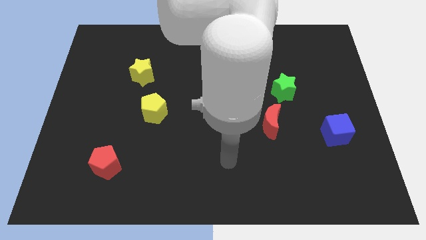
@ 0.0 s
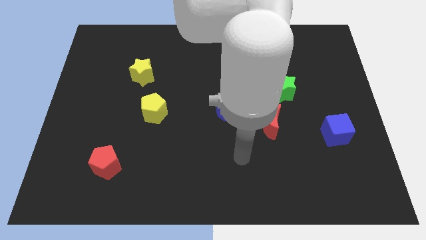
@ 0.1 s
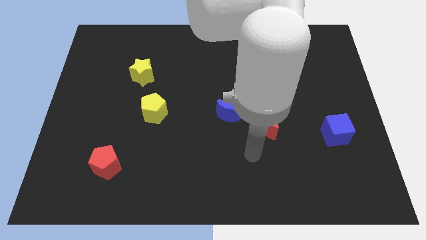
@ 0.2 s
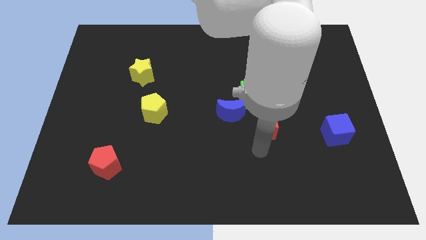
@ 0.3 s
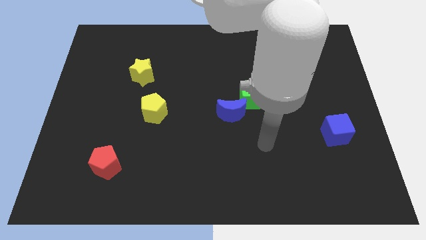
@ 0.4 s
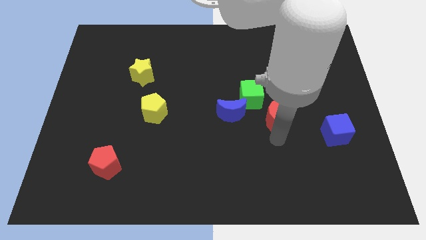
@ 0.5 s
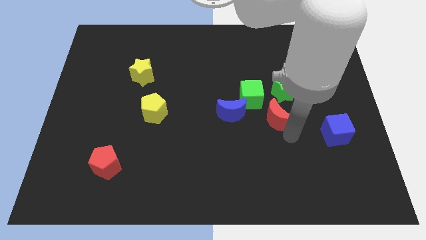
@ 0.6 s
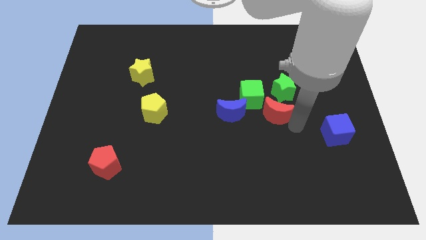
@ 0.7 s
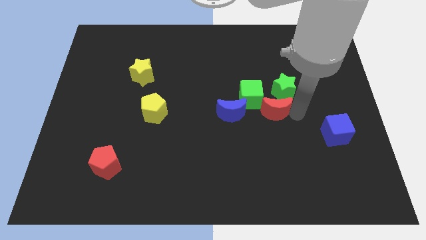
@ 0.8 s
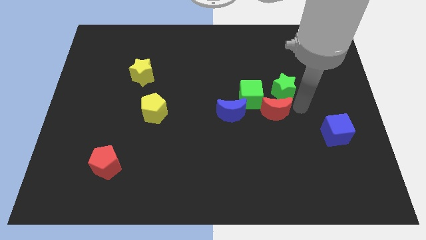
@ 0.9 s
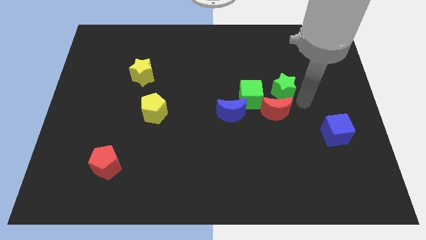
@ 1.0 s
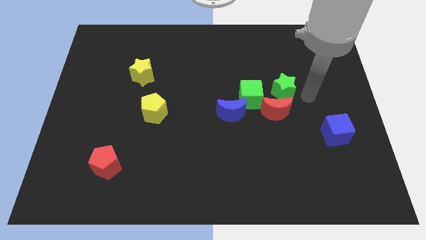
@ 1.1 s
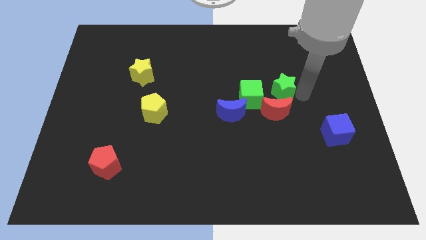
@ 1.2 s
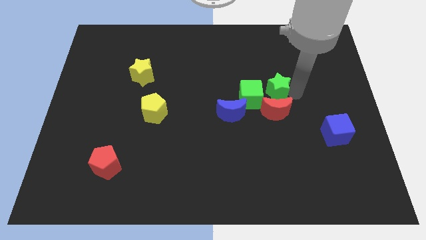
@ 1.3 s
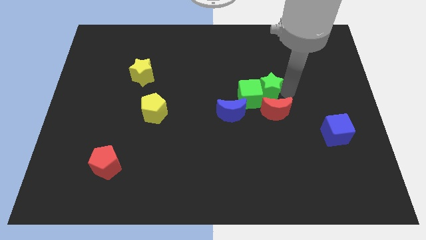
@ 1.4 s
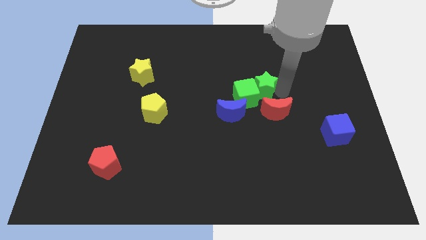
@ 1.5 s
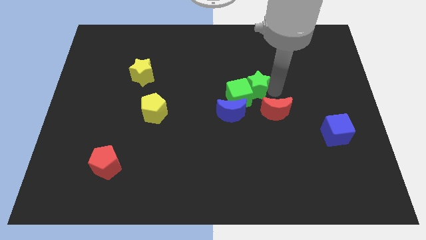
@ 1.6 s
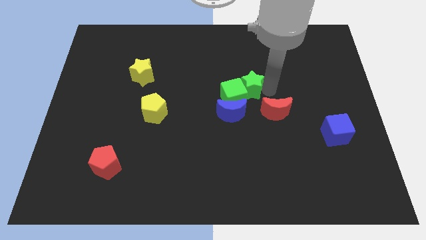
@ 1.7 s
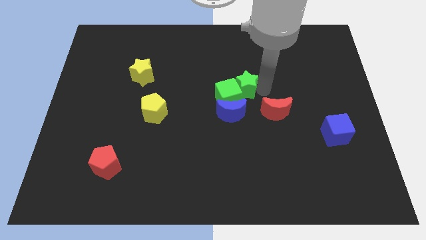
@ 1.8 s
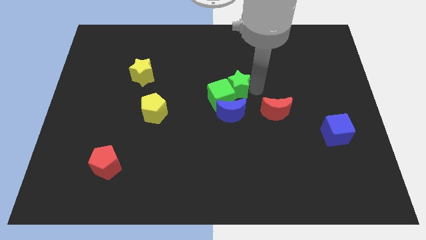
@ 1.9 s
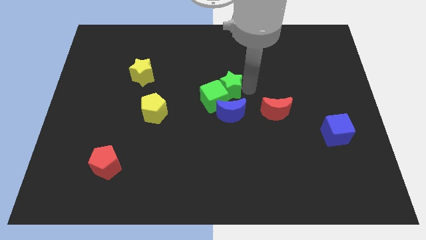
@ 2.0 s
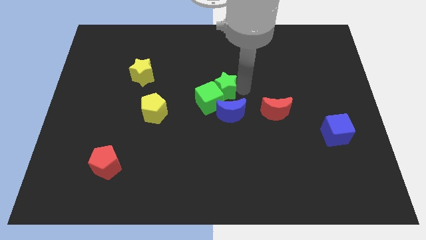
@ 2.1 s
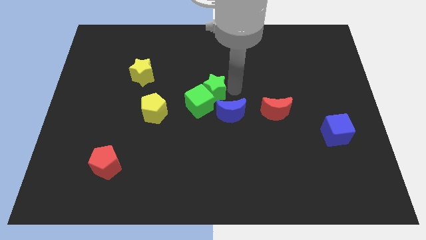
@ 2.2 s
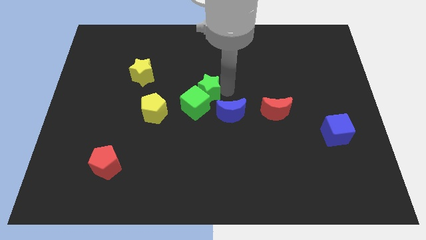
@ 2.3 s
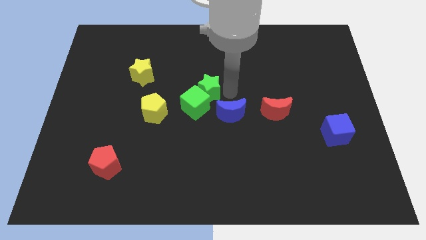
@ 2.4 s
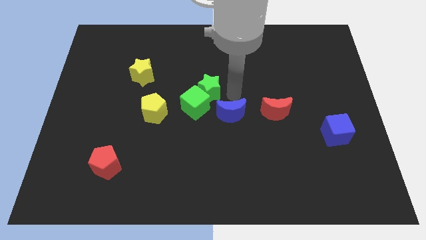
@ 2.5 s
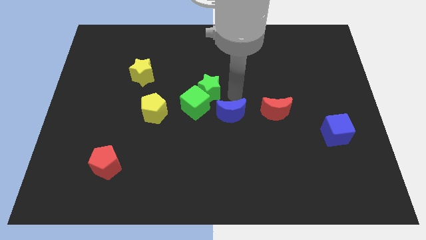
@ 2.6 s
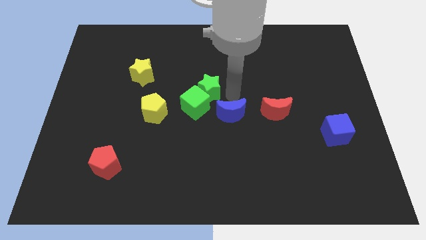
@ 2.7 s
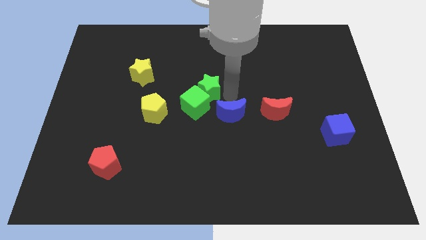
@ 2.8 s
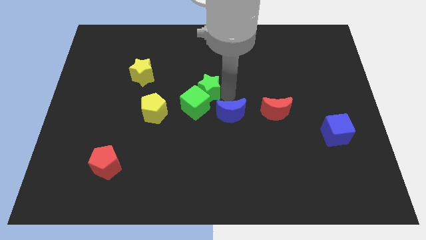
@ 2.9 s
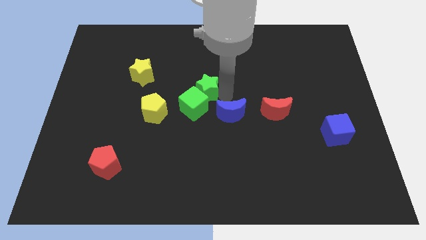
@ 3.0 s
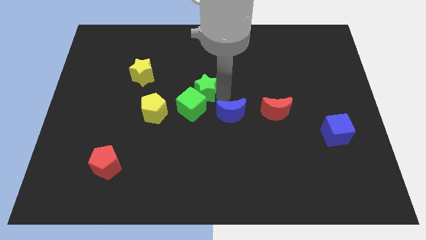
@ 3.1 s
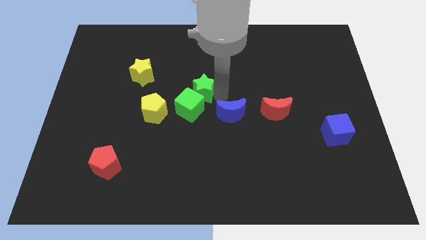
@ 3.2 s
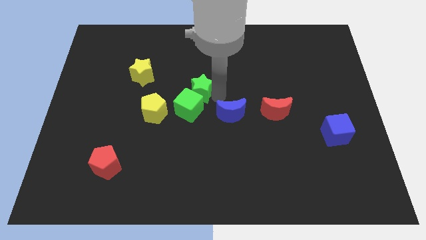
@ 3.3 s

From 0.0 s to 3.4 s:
push the green star left

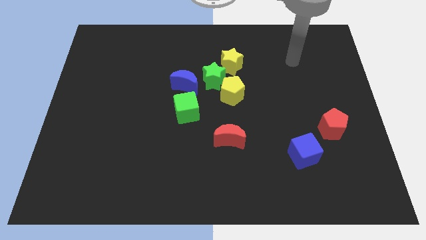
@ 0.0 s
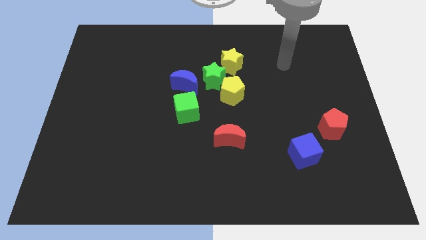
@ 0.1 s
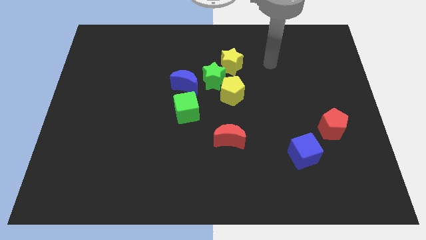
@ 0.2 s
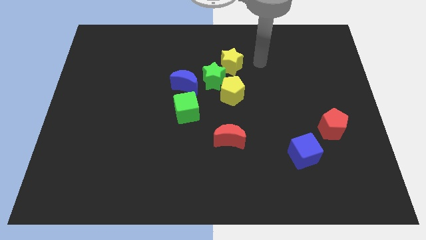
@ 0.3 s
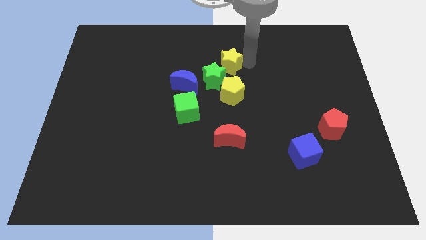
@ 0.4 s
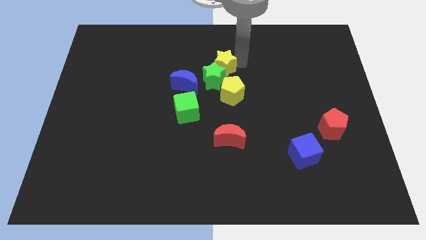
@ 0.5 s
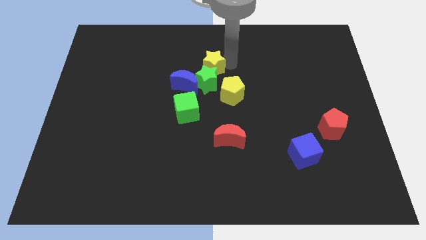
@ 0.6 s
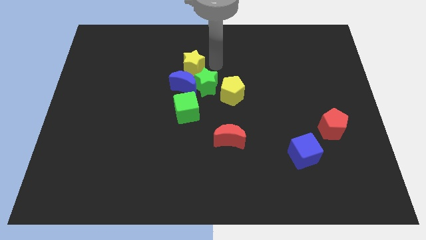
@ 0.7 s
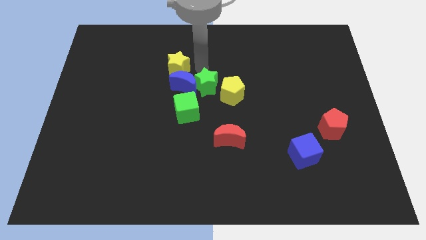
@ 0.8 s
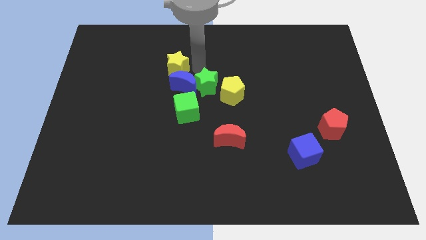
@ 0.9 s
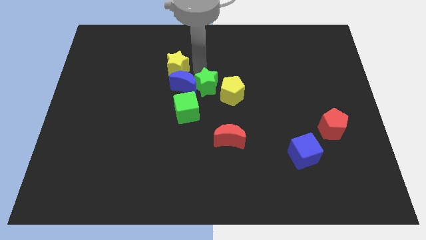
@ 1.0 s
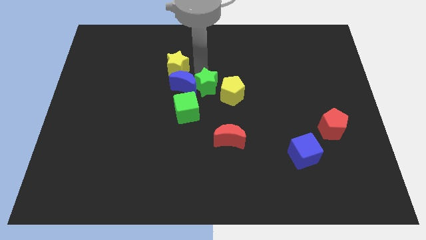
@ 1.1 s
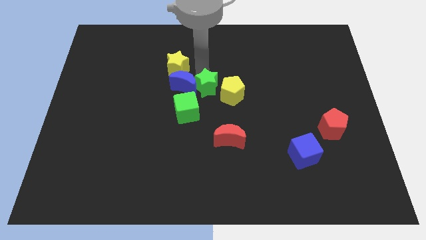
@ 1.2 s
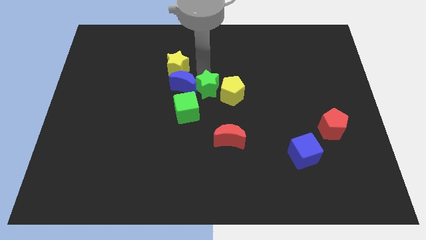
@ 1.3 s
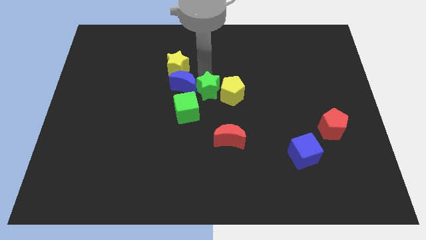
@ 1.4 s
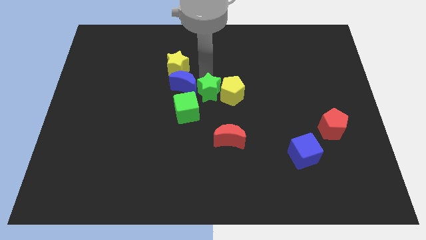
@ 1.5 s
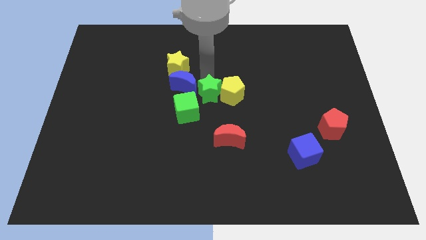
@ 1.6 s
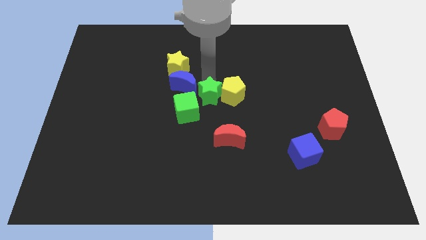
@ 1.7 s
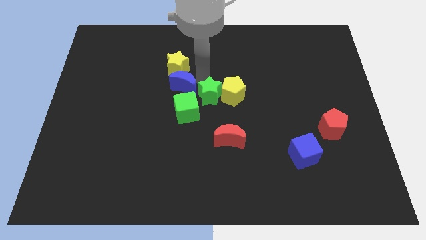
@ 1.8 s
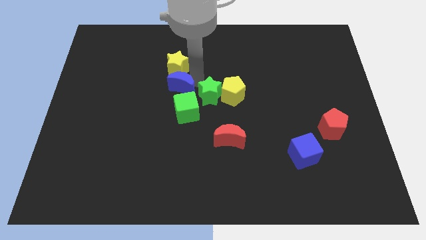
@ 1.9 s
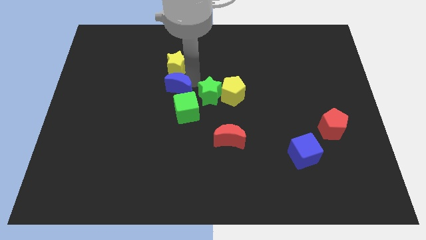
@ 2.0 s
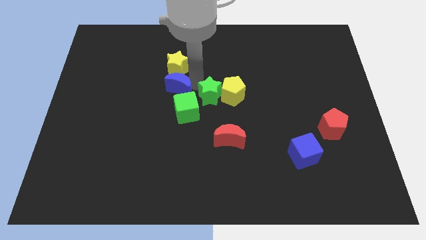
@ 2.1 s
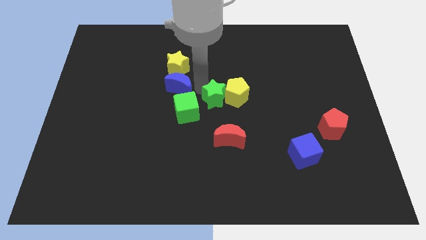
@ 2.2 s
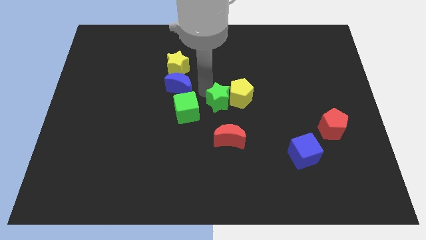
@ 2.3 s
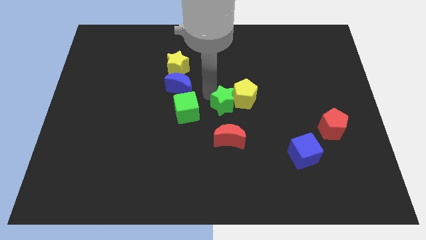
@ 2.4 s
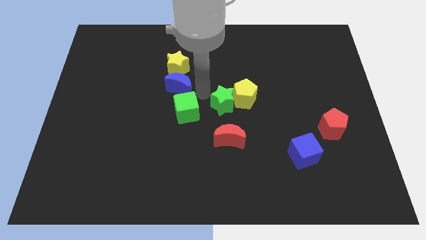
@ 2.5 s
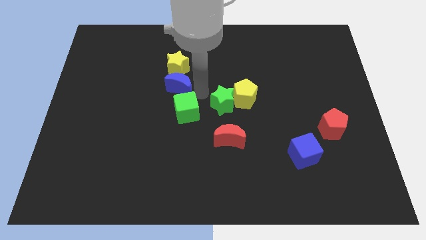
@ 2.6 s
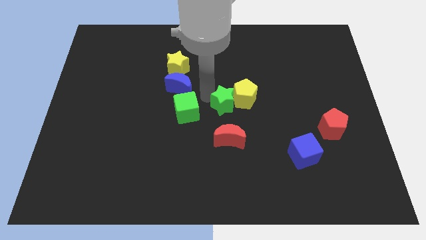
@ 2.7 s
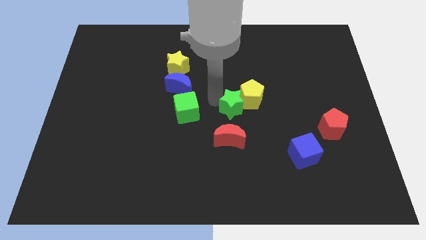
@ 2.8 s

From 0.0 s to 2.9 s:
push the green star a little bit diagonally downwards and right

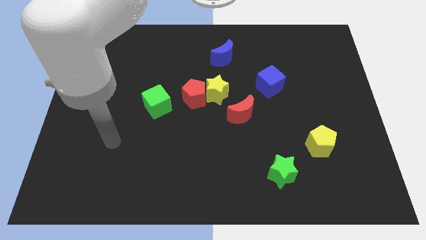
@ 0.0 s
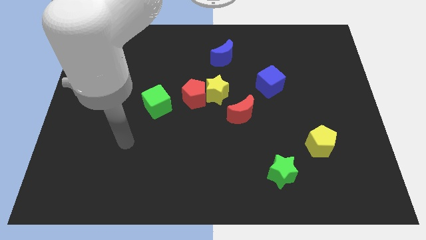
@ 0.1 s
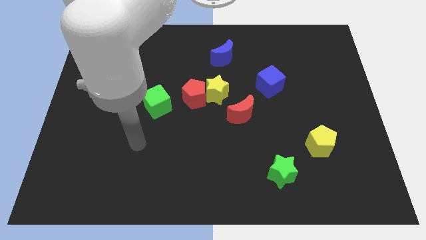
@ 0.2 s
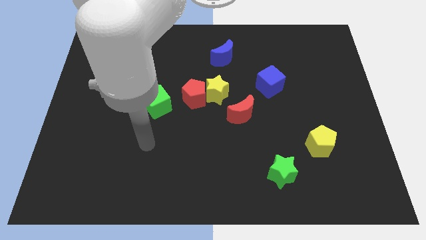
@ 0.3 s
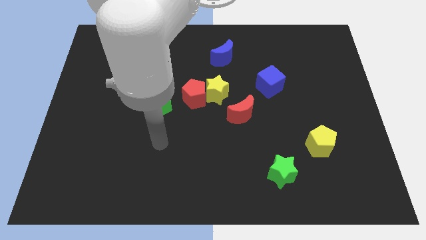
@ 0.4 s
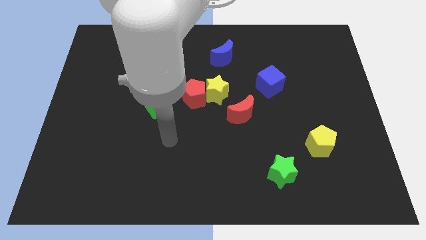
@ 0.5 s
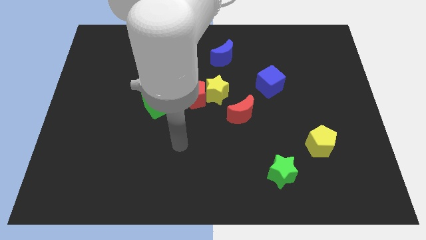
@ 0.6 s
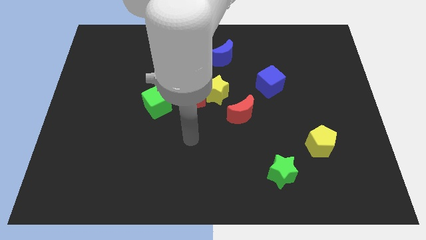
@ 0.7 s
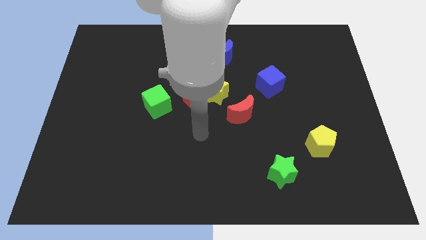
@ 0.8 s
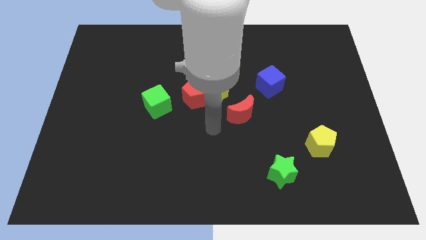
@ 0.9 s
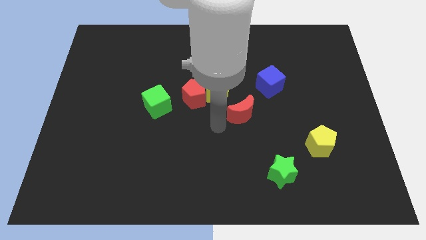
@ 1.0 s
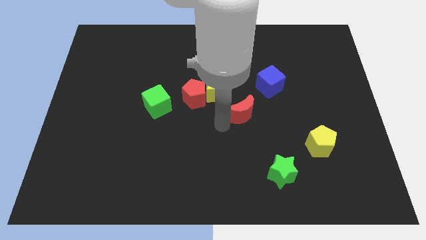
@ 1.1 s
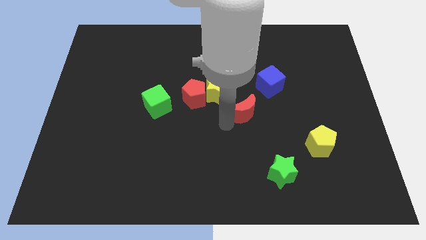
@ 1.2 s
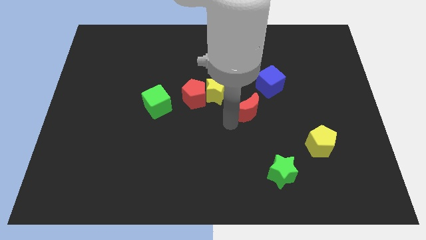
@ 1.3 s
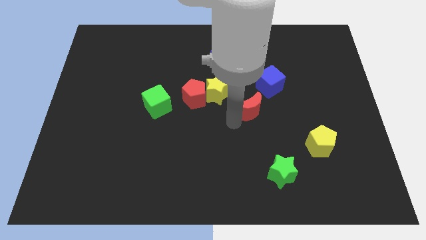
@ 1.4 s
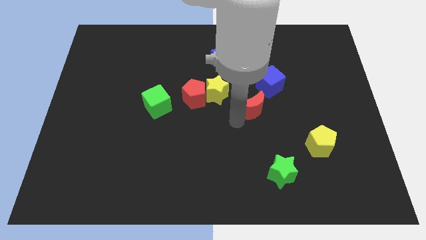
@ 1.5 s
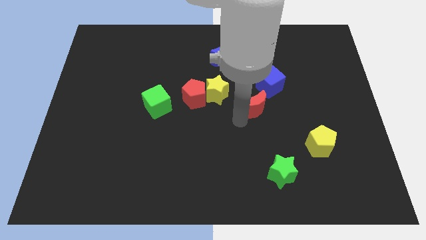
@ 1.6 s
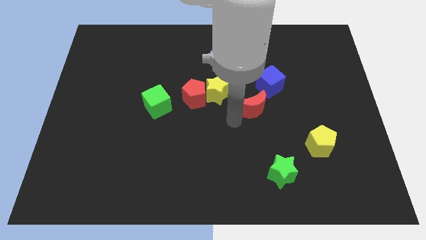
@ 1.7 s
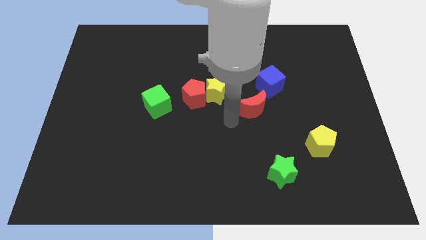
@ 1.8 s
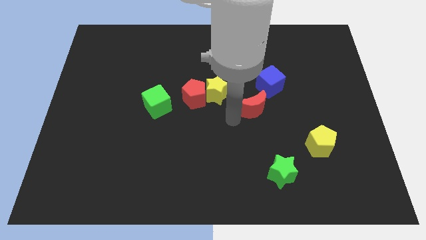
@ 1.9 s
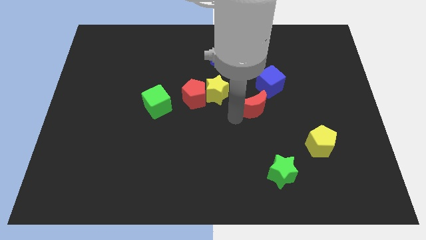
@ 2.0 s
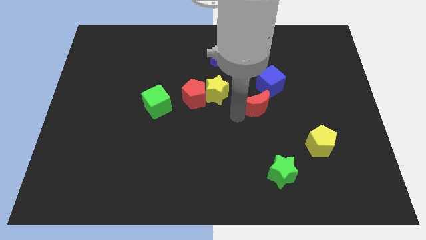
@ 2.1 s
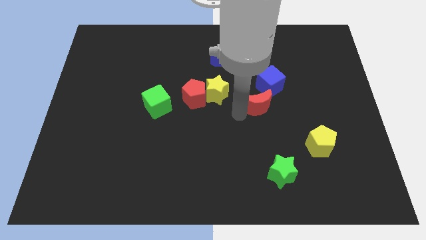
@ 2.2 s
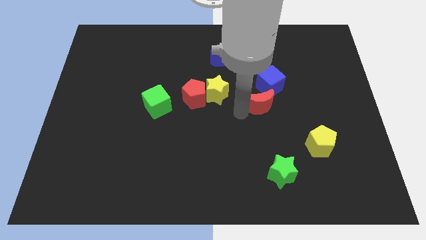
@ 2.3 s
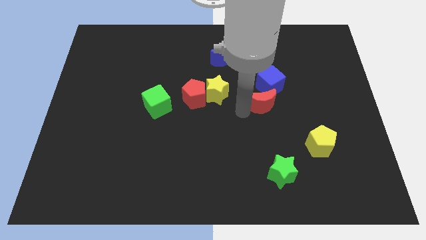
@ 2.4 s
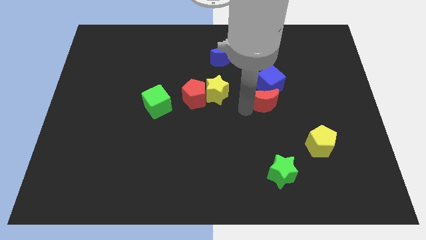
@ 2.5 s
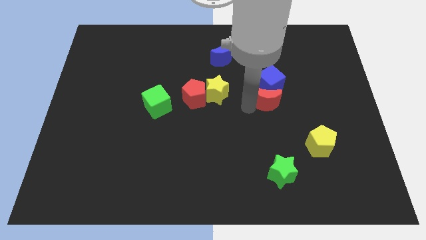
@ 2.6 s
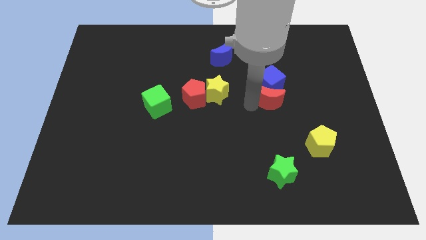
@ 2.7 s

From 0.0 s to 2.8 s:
slightly push the red moon upwards and to the right diagonally
